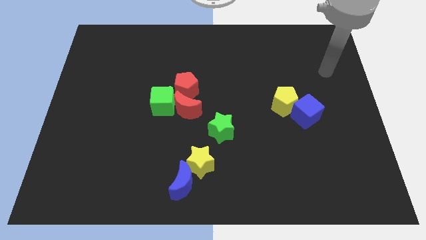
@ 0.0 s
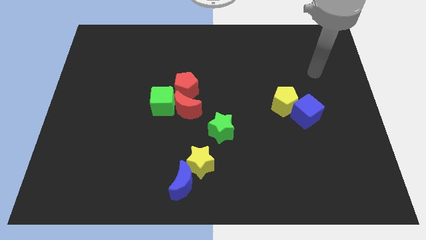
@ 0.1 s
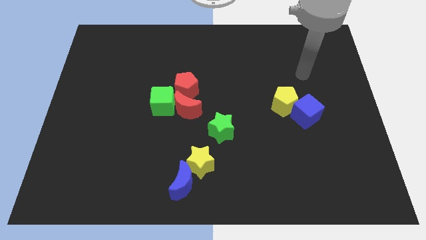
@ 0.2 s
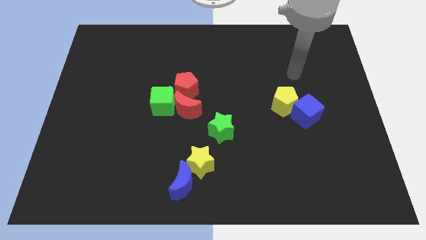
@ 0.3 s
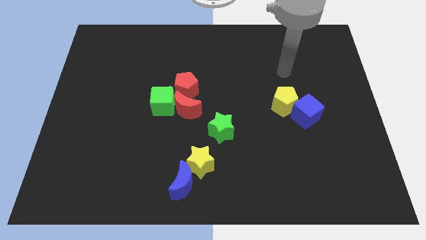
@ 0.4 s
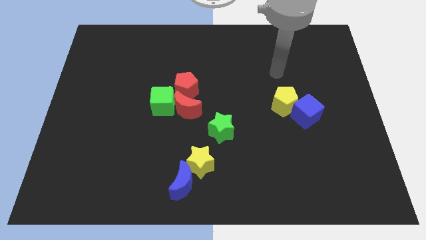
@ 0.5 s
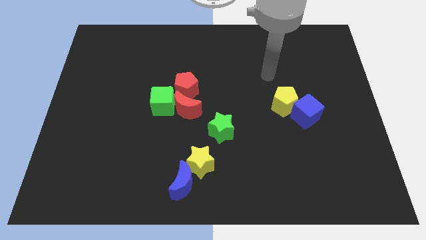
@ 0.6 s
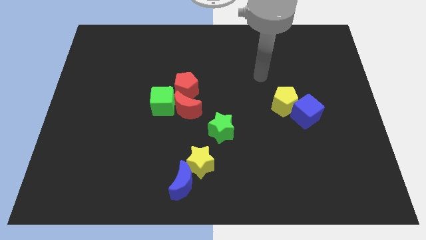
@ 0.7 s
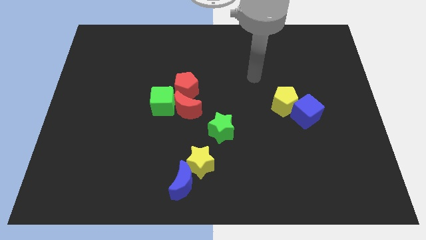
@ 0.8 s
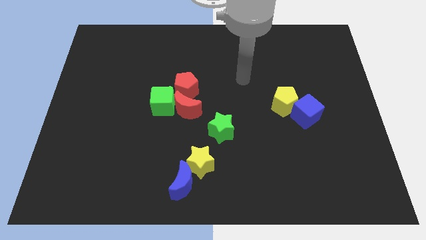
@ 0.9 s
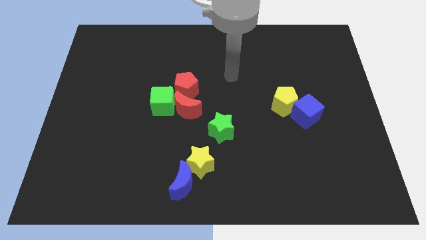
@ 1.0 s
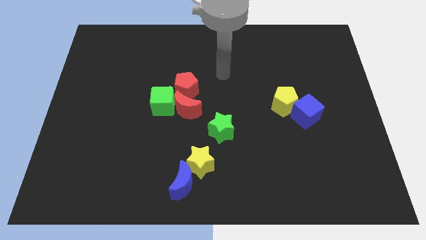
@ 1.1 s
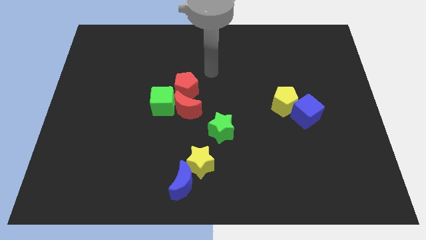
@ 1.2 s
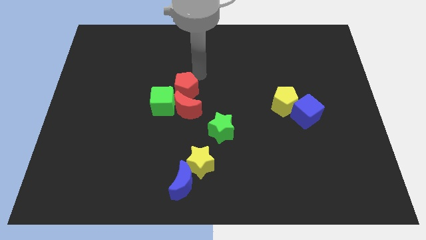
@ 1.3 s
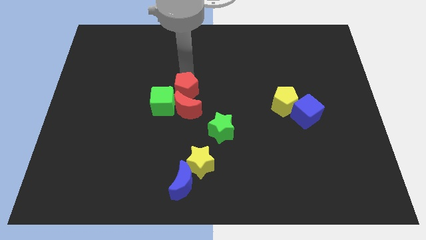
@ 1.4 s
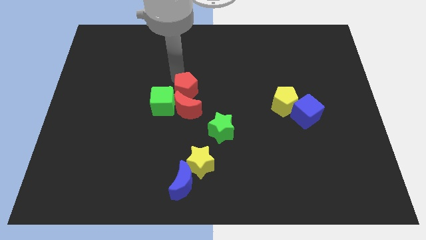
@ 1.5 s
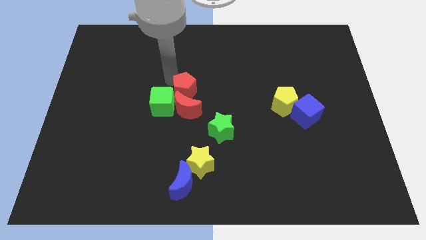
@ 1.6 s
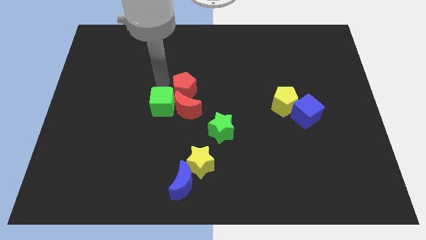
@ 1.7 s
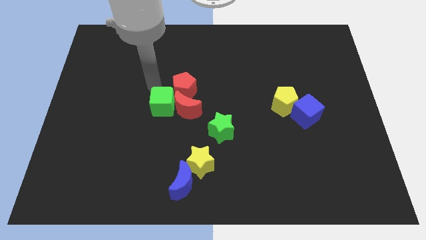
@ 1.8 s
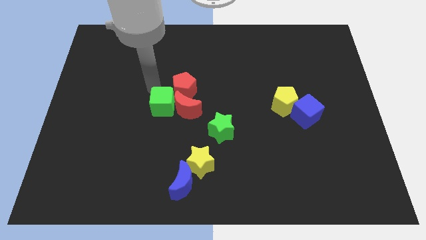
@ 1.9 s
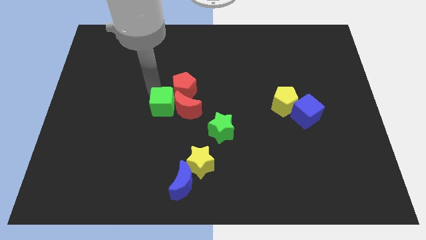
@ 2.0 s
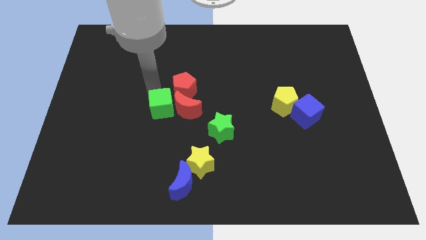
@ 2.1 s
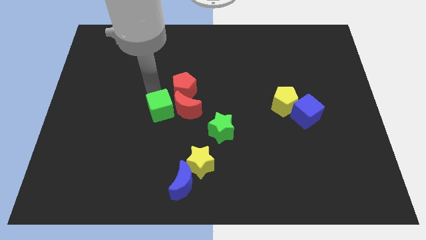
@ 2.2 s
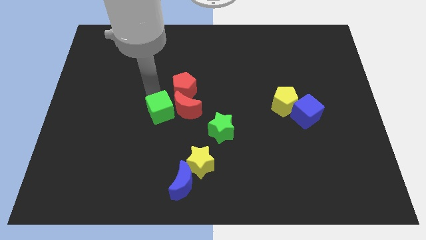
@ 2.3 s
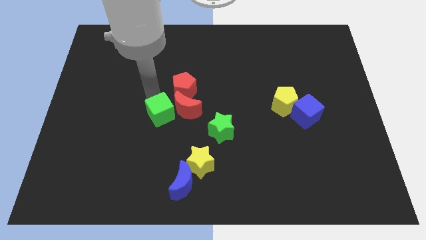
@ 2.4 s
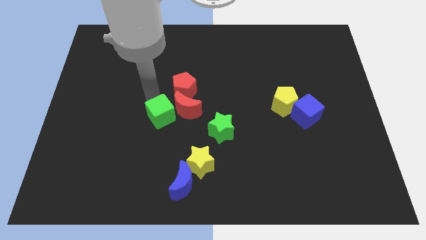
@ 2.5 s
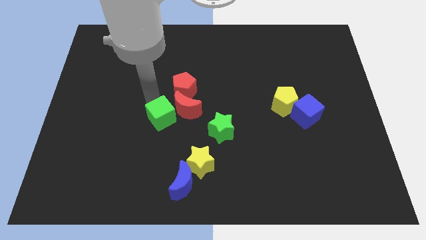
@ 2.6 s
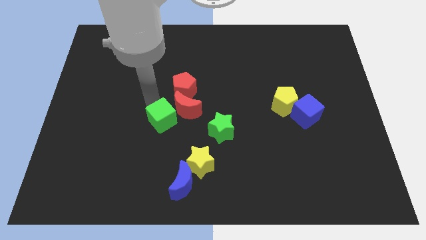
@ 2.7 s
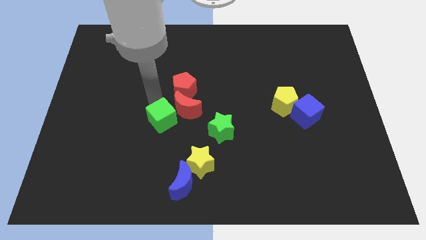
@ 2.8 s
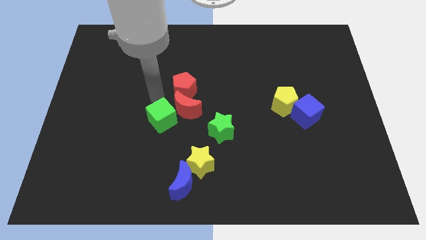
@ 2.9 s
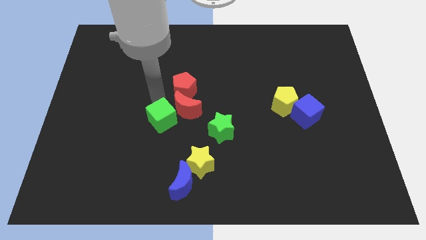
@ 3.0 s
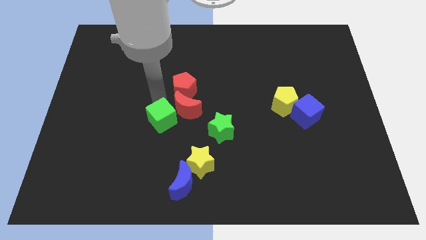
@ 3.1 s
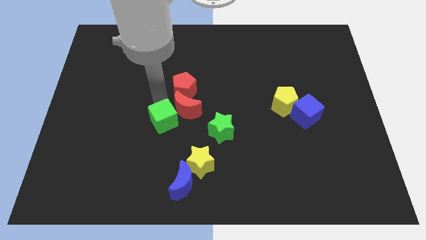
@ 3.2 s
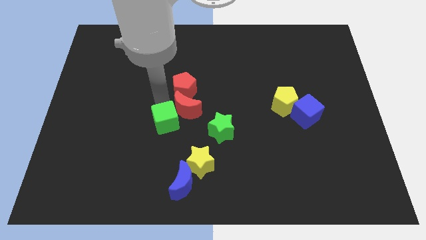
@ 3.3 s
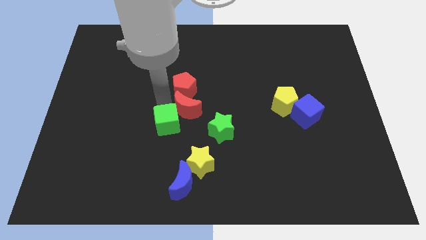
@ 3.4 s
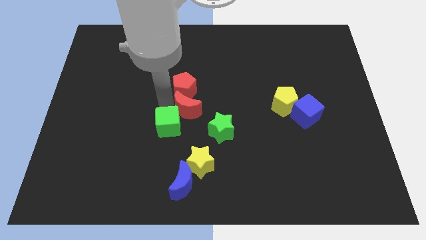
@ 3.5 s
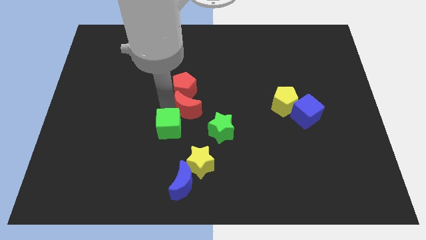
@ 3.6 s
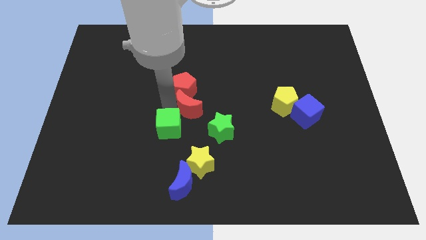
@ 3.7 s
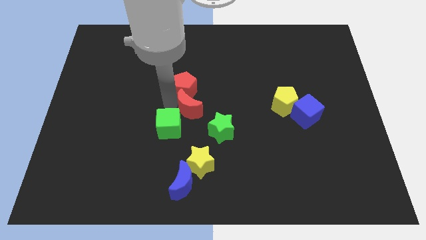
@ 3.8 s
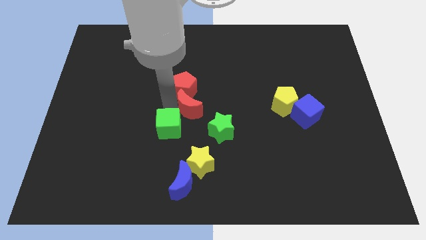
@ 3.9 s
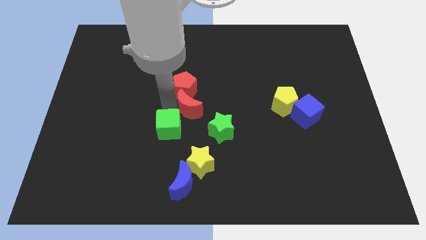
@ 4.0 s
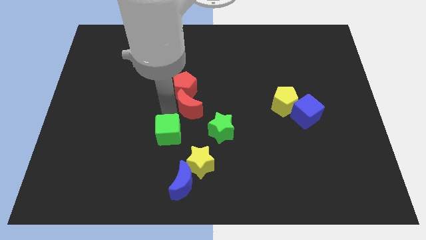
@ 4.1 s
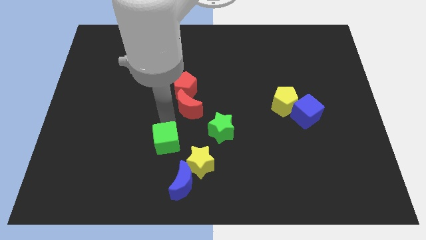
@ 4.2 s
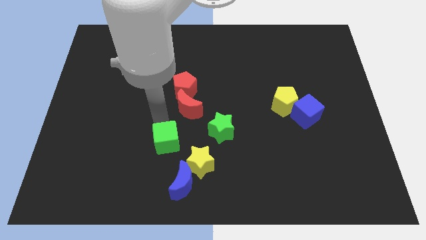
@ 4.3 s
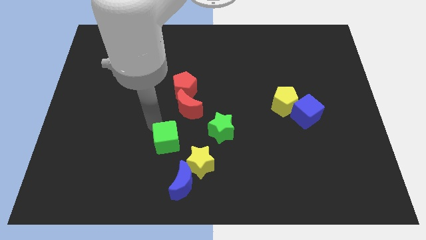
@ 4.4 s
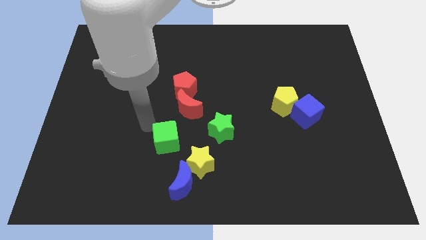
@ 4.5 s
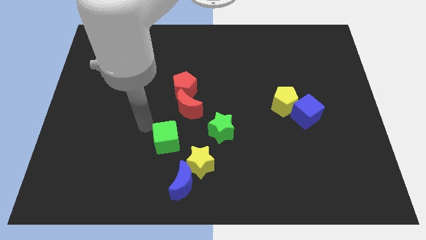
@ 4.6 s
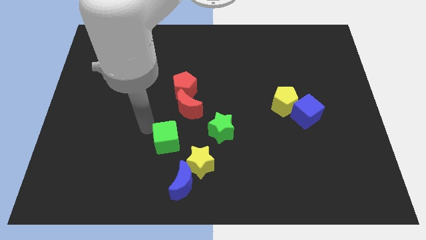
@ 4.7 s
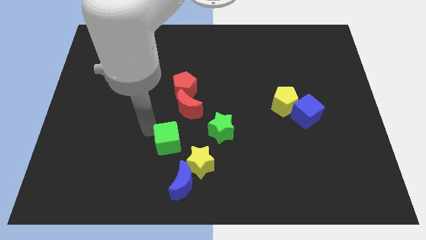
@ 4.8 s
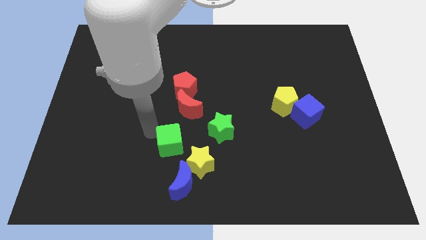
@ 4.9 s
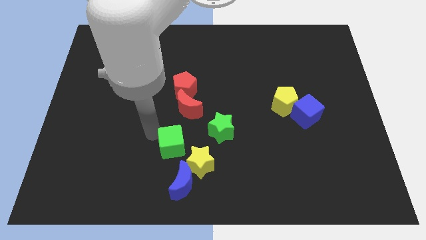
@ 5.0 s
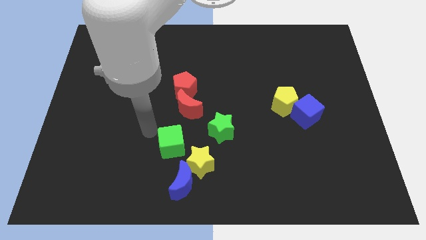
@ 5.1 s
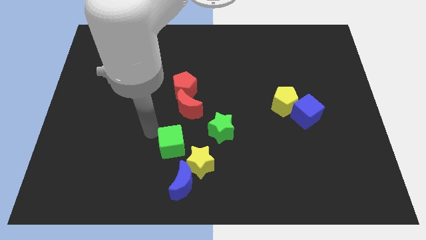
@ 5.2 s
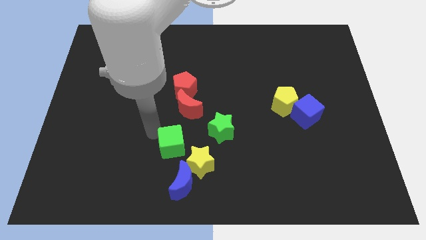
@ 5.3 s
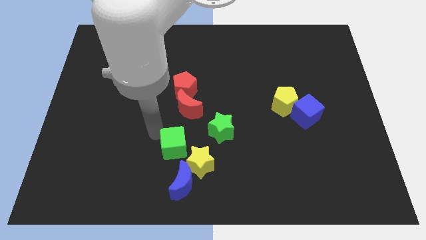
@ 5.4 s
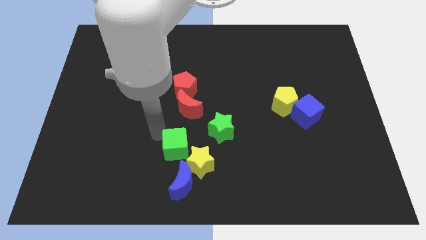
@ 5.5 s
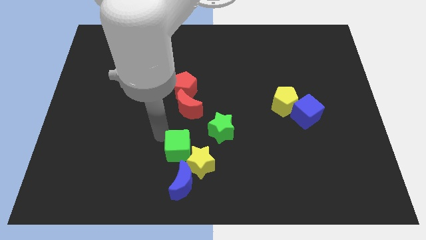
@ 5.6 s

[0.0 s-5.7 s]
slide the green cube next to the yellow star

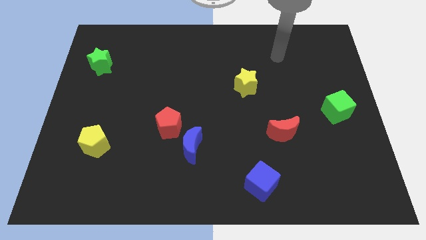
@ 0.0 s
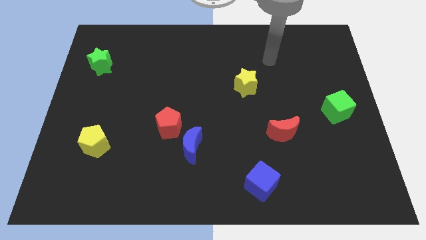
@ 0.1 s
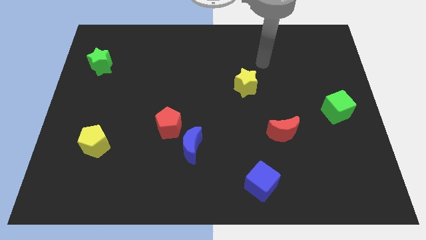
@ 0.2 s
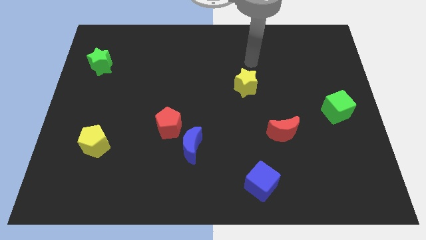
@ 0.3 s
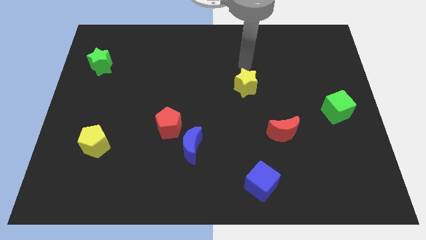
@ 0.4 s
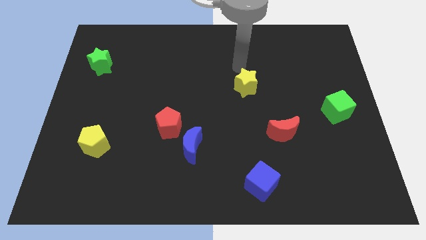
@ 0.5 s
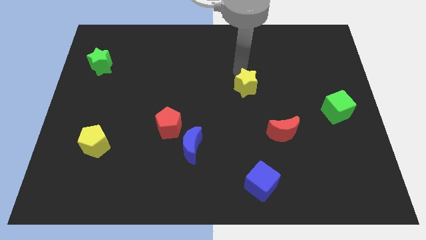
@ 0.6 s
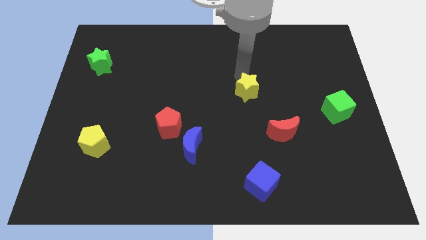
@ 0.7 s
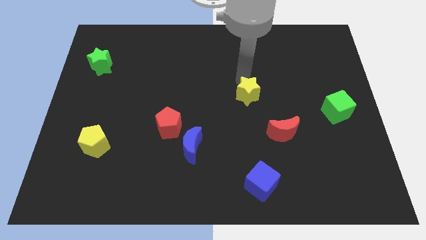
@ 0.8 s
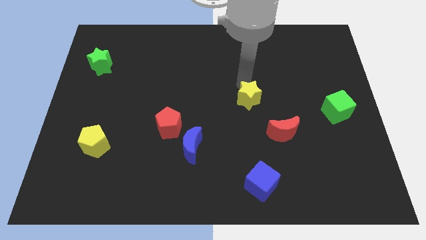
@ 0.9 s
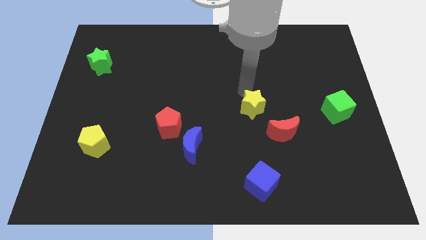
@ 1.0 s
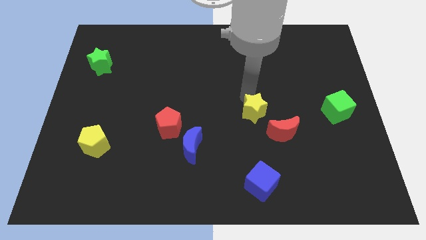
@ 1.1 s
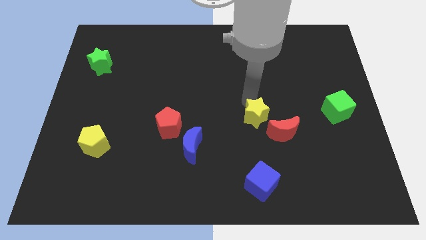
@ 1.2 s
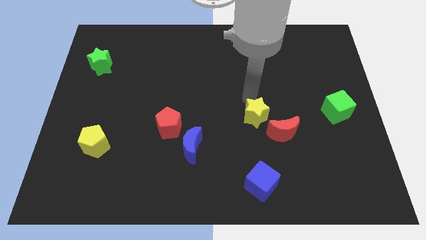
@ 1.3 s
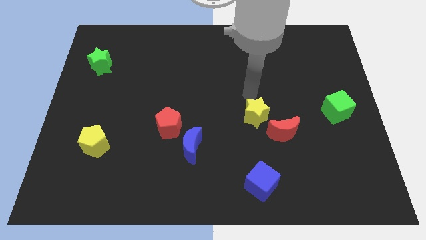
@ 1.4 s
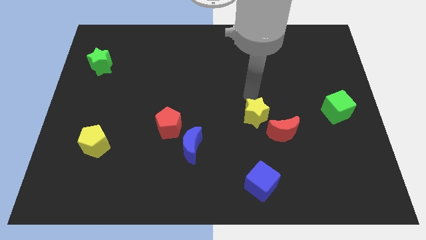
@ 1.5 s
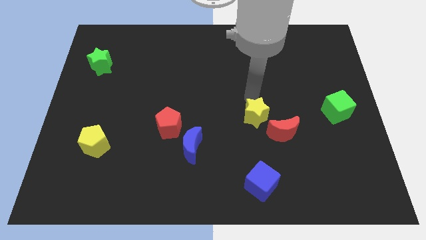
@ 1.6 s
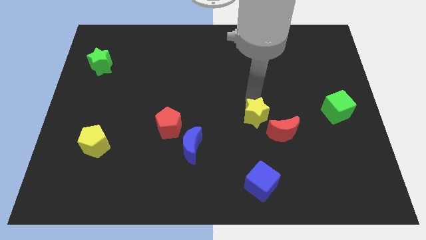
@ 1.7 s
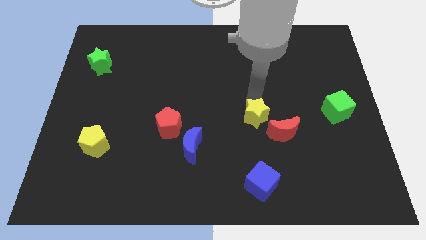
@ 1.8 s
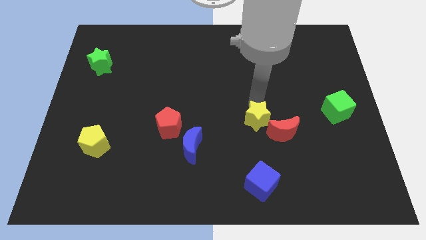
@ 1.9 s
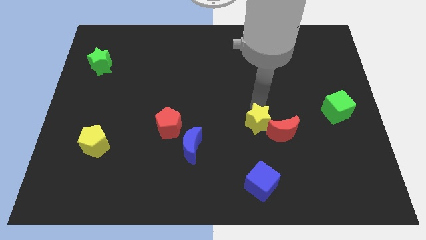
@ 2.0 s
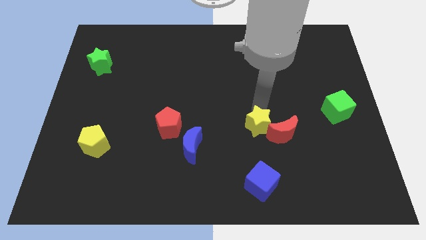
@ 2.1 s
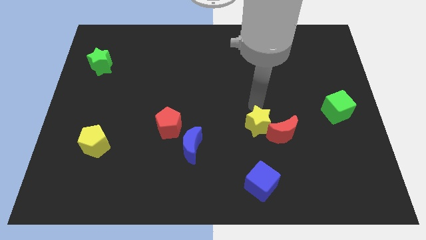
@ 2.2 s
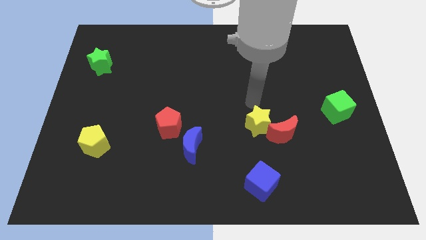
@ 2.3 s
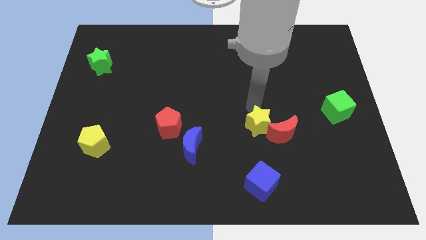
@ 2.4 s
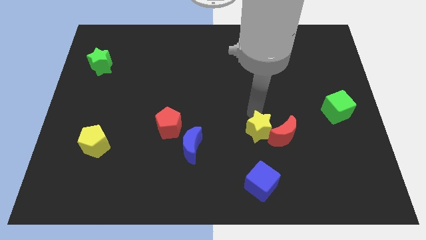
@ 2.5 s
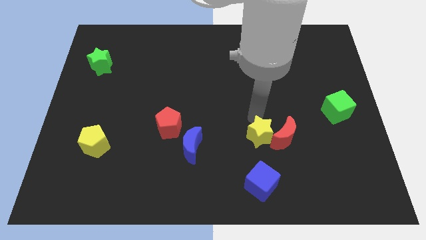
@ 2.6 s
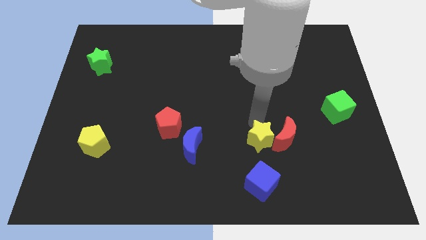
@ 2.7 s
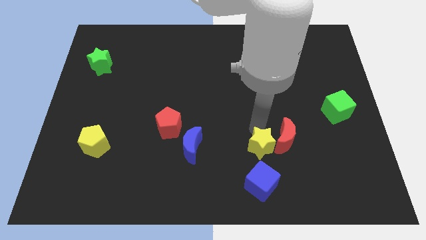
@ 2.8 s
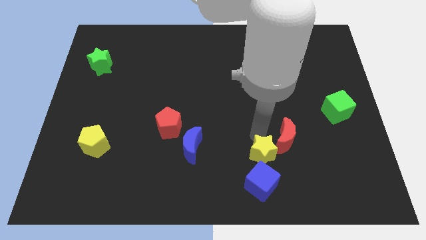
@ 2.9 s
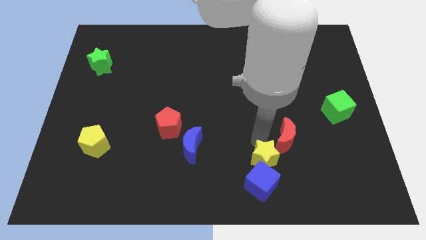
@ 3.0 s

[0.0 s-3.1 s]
push the yellow star next to the blue cube
